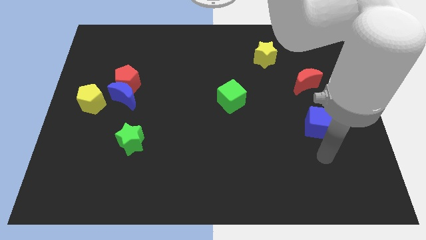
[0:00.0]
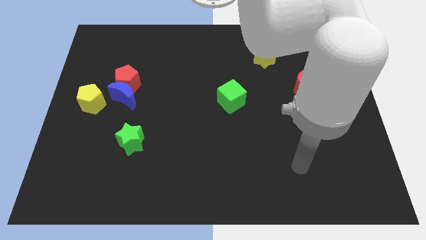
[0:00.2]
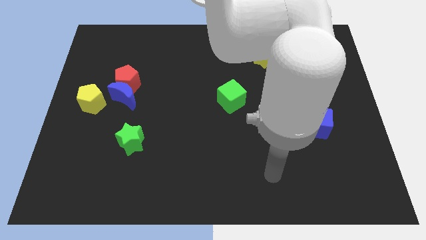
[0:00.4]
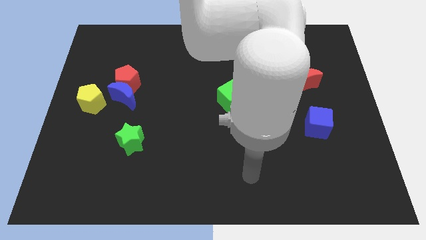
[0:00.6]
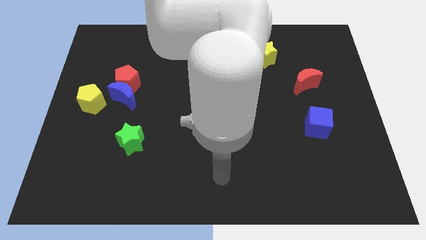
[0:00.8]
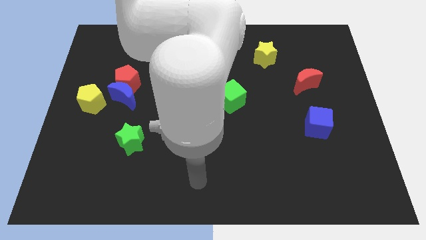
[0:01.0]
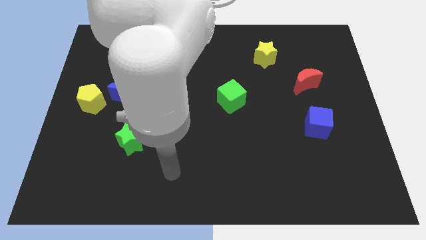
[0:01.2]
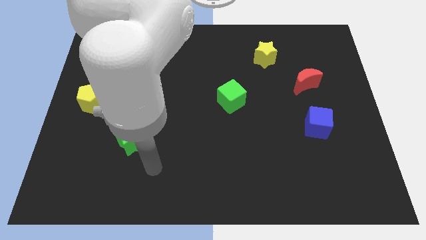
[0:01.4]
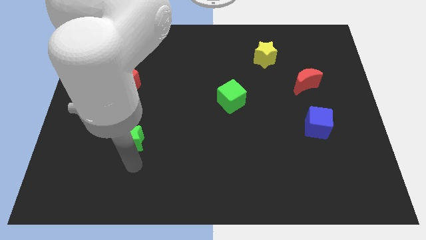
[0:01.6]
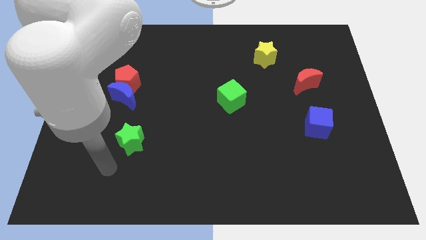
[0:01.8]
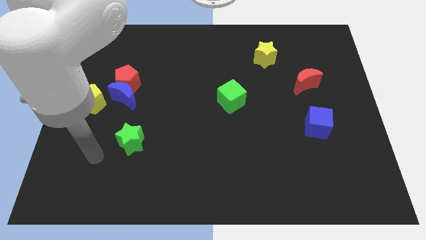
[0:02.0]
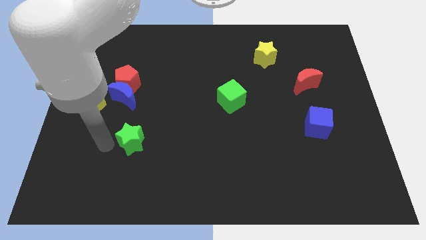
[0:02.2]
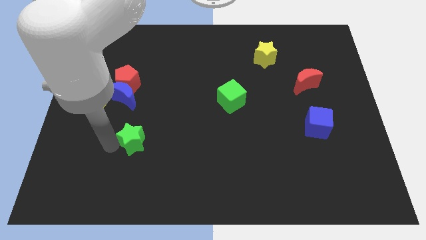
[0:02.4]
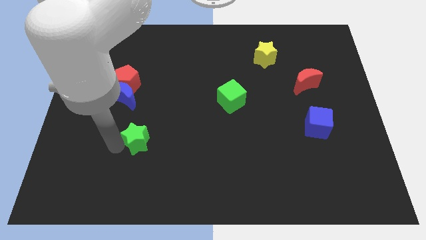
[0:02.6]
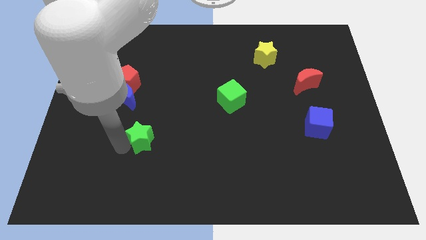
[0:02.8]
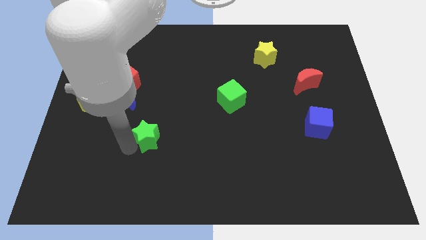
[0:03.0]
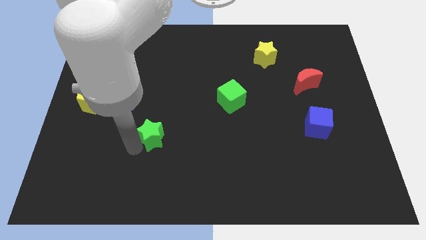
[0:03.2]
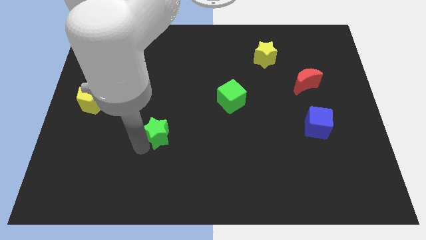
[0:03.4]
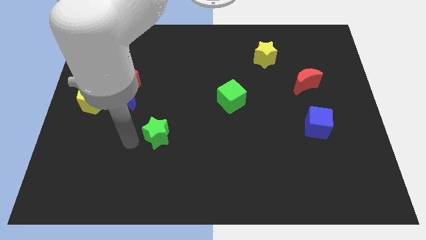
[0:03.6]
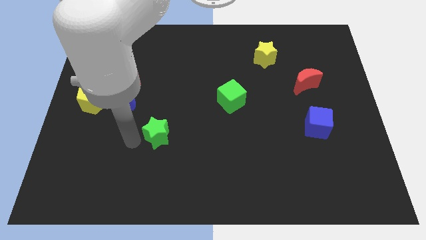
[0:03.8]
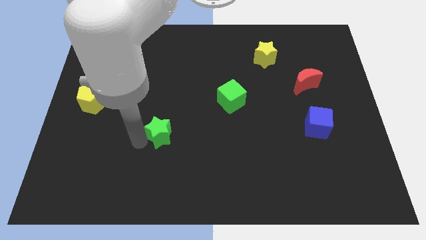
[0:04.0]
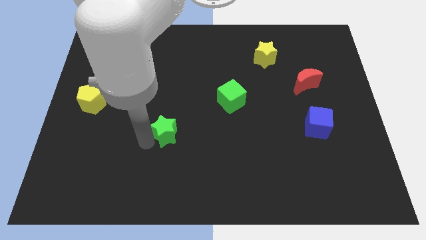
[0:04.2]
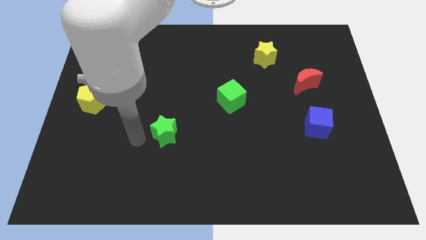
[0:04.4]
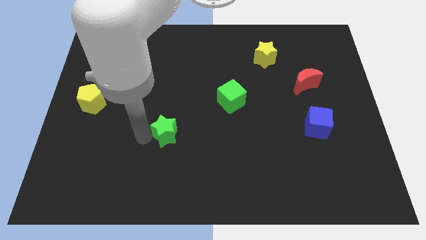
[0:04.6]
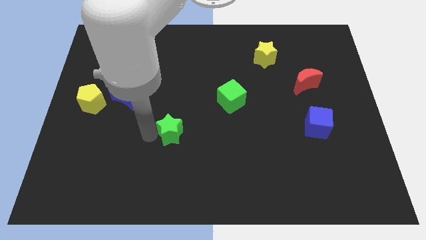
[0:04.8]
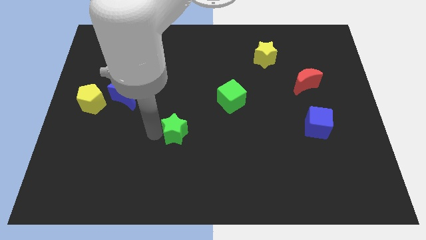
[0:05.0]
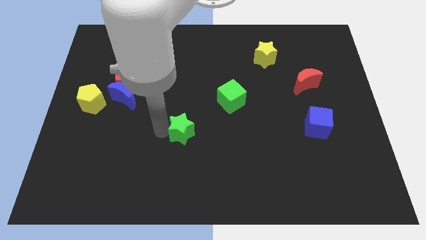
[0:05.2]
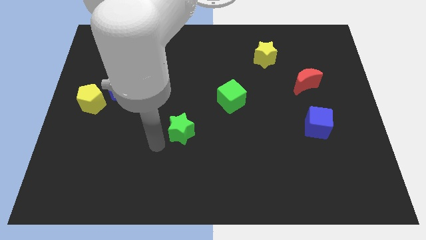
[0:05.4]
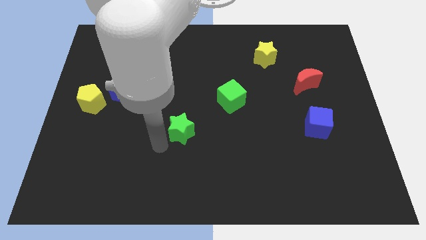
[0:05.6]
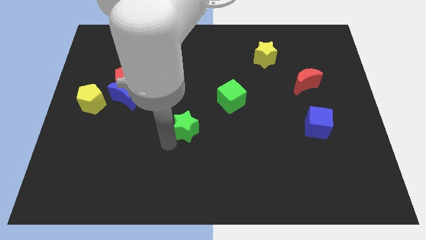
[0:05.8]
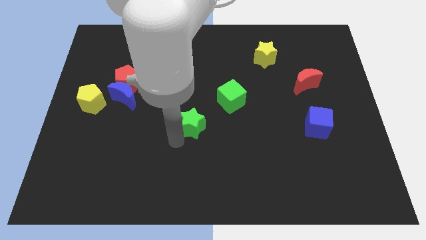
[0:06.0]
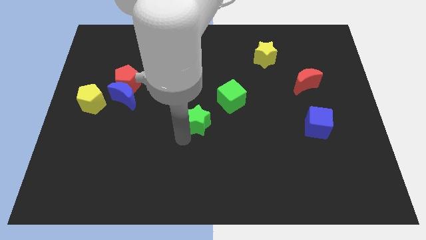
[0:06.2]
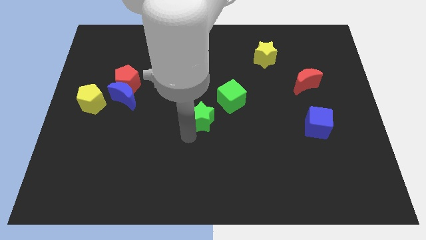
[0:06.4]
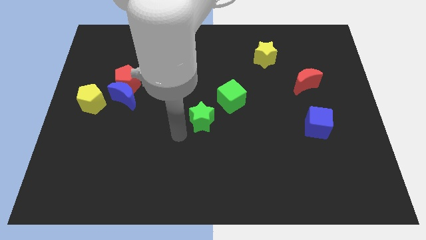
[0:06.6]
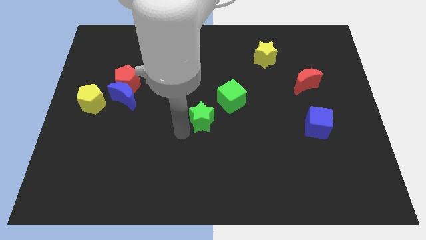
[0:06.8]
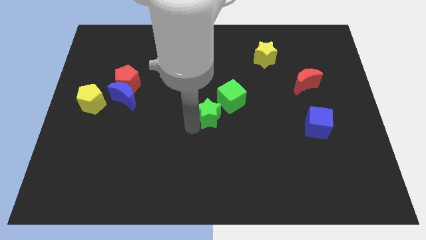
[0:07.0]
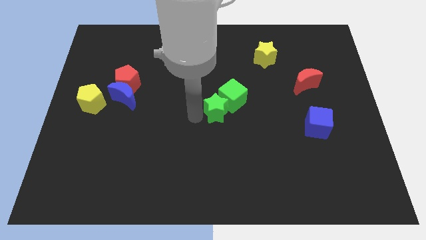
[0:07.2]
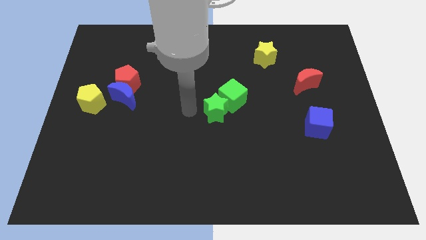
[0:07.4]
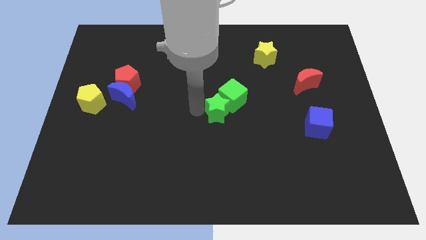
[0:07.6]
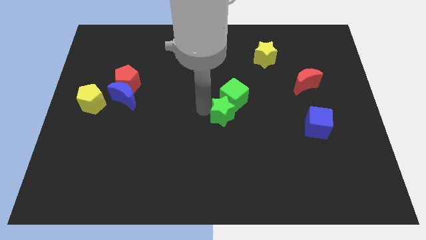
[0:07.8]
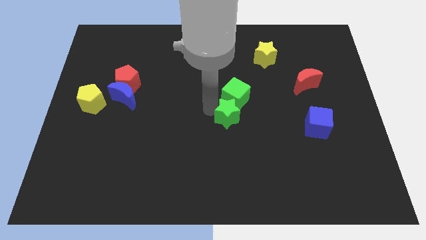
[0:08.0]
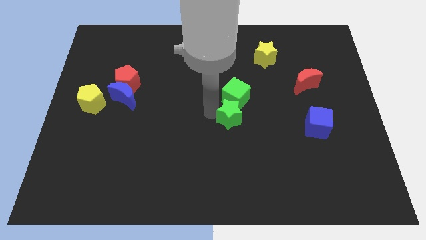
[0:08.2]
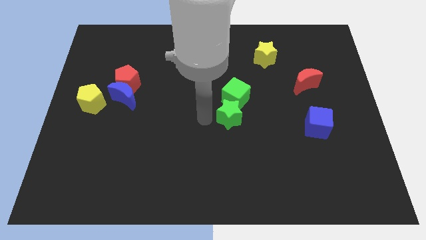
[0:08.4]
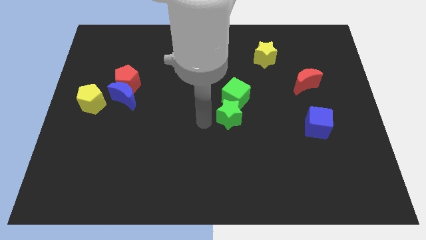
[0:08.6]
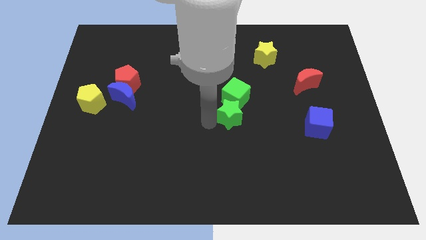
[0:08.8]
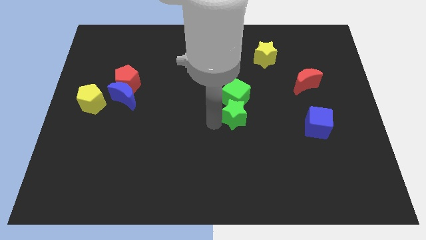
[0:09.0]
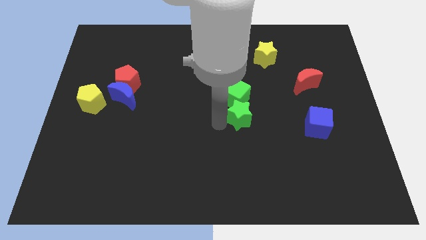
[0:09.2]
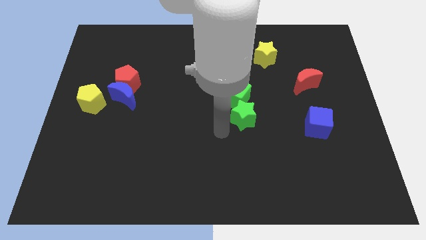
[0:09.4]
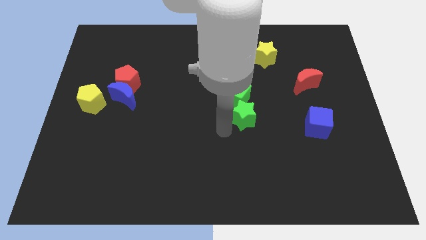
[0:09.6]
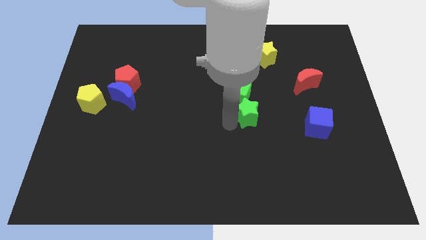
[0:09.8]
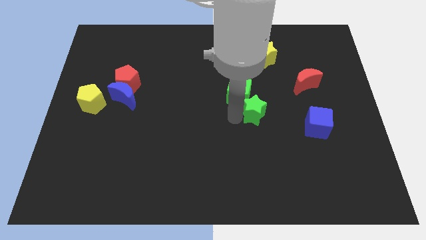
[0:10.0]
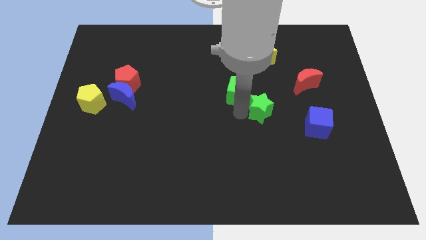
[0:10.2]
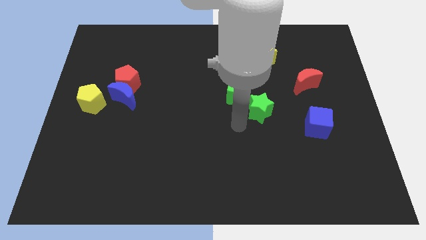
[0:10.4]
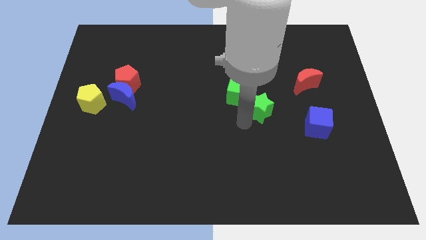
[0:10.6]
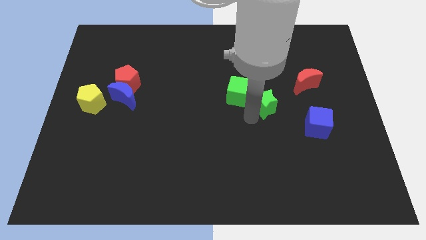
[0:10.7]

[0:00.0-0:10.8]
move the green star to the right of the green cube

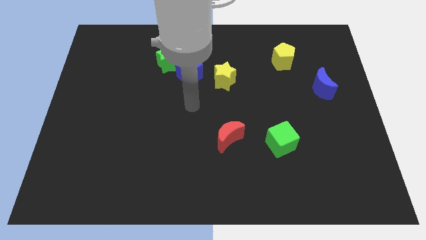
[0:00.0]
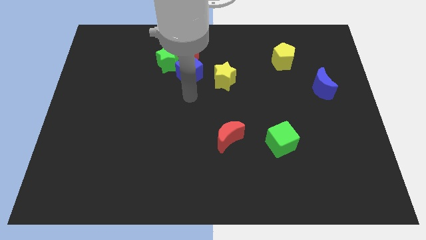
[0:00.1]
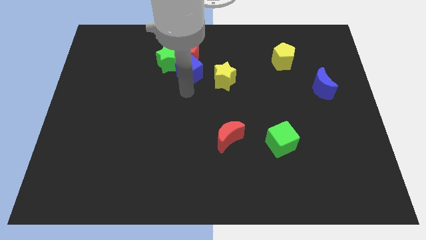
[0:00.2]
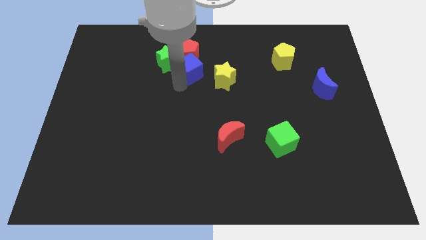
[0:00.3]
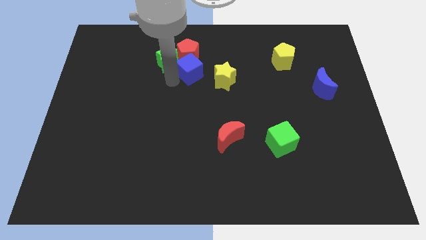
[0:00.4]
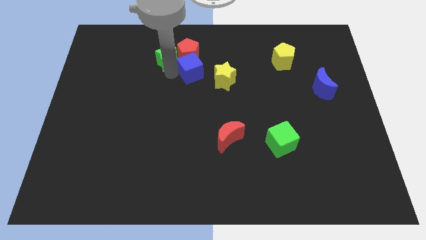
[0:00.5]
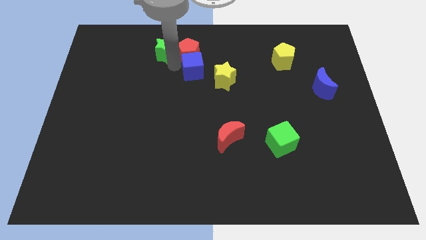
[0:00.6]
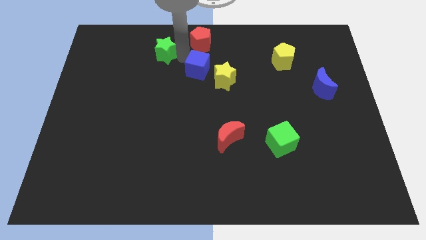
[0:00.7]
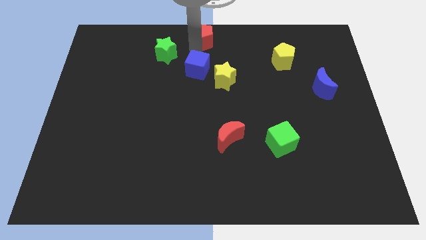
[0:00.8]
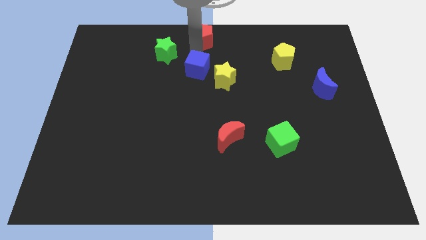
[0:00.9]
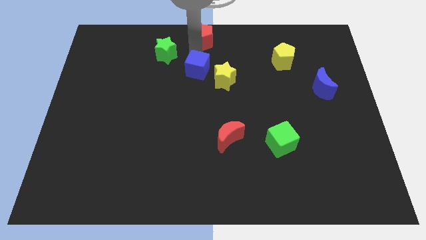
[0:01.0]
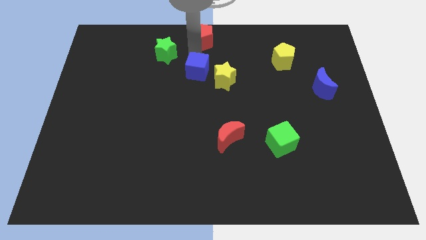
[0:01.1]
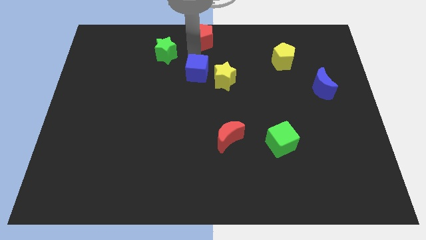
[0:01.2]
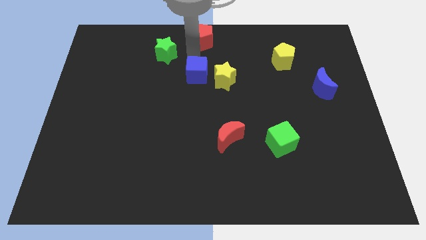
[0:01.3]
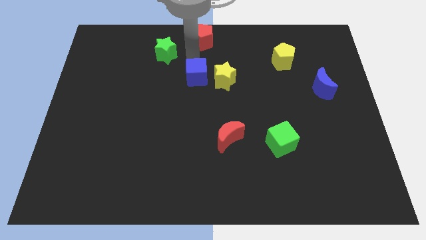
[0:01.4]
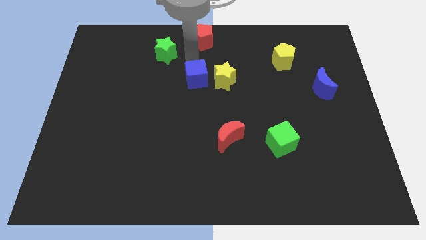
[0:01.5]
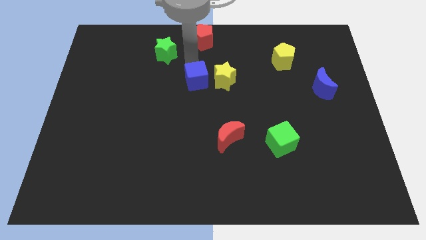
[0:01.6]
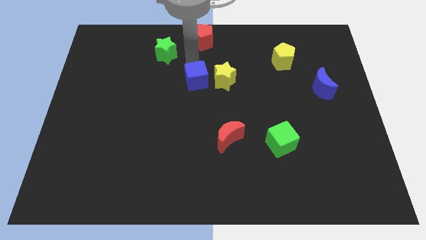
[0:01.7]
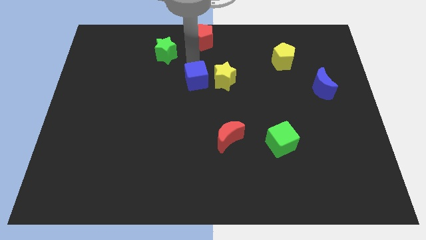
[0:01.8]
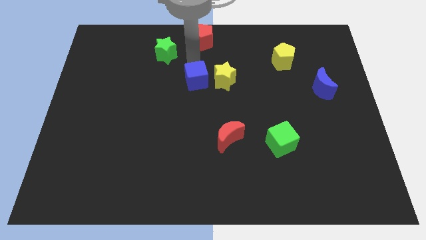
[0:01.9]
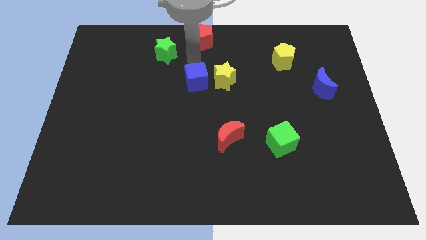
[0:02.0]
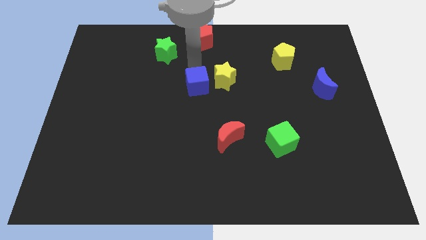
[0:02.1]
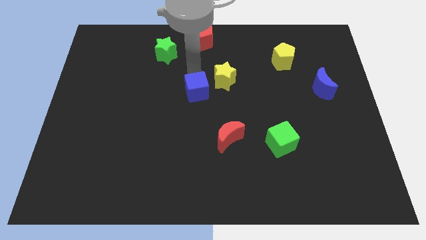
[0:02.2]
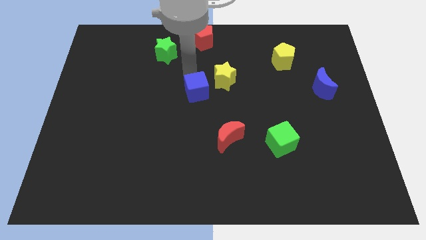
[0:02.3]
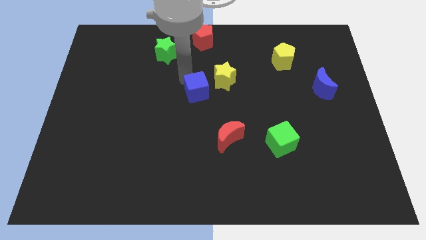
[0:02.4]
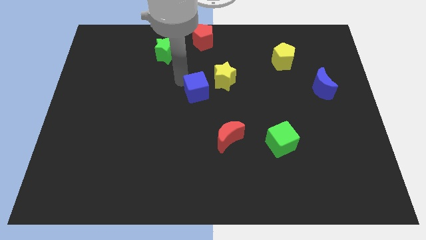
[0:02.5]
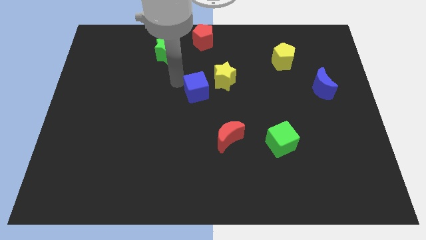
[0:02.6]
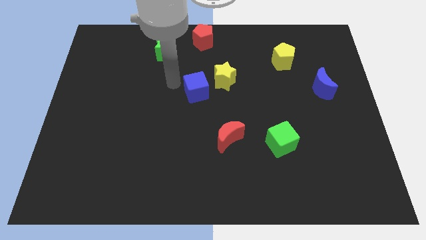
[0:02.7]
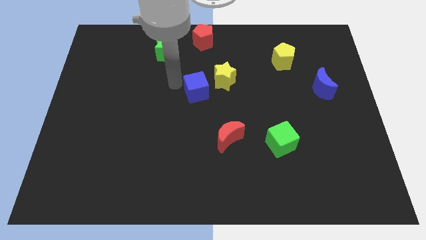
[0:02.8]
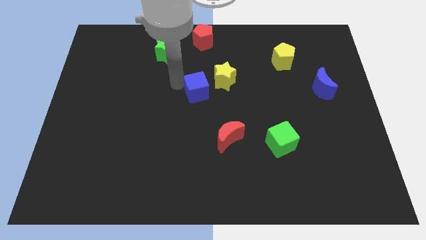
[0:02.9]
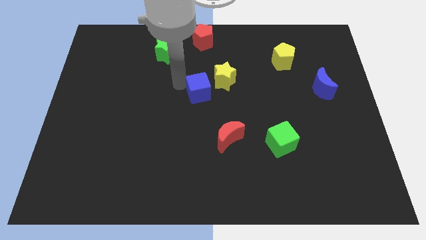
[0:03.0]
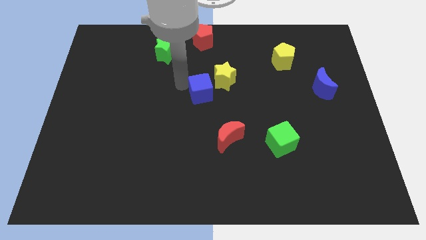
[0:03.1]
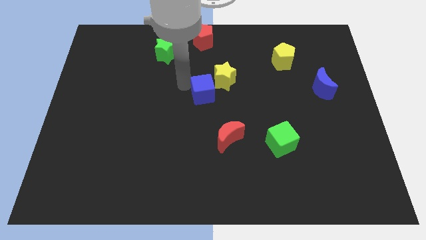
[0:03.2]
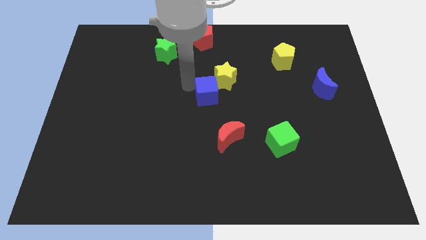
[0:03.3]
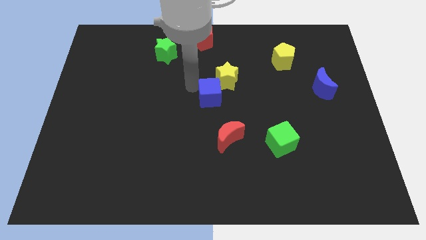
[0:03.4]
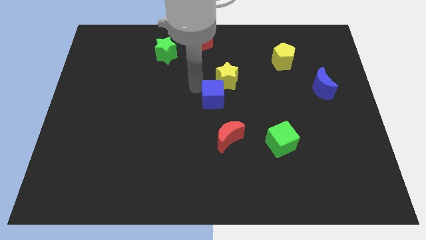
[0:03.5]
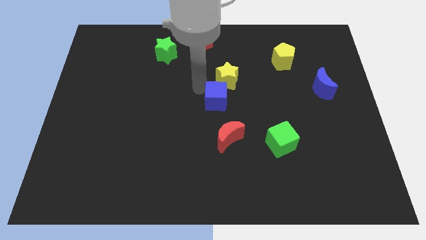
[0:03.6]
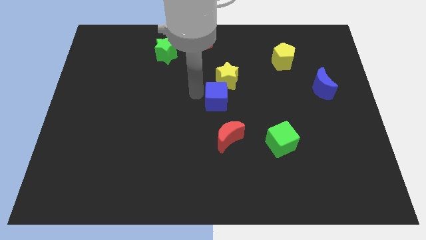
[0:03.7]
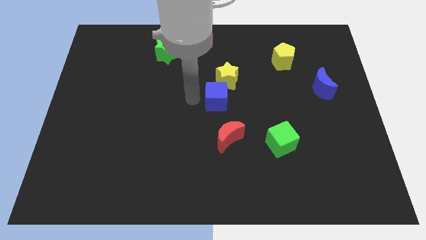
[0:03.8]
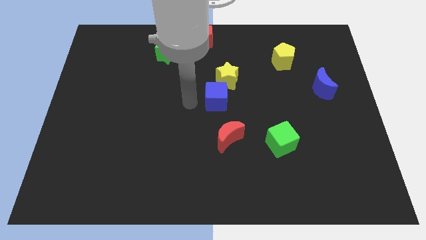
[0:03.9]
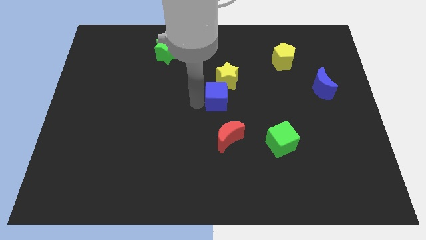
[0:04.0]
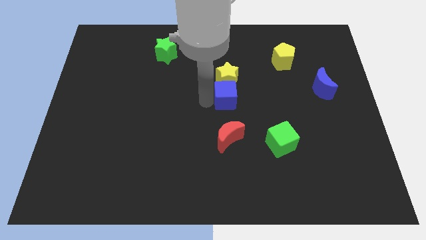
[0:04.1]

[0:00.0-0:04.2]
slide the blue cube to the bottom right side of the yellow star
